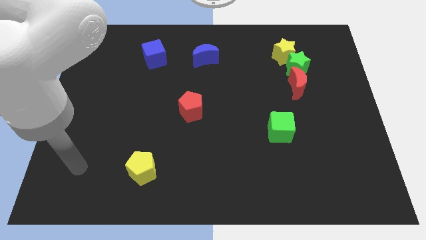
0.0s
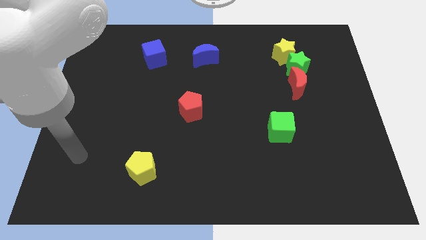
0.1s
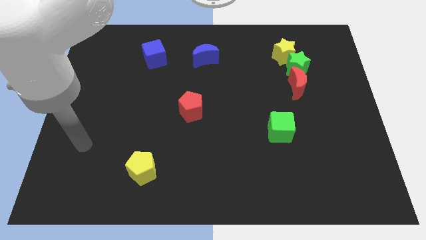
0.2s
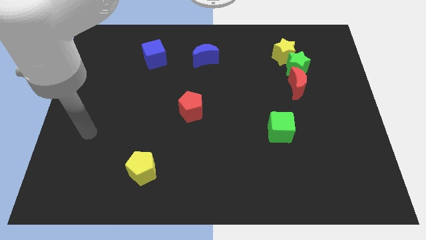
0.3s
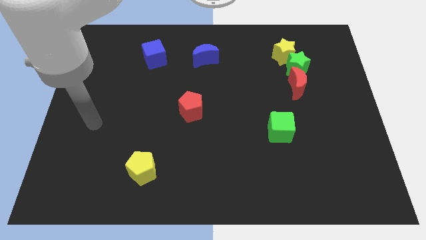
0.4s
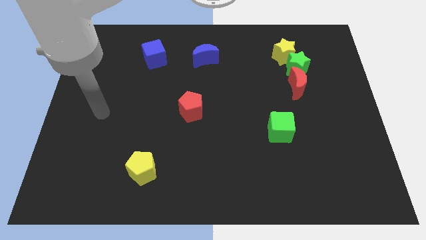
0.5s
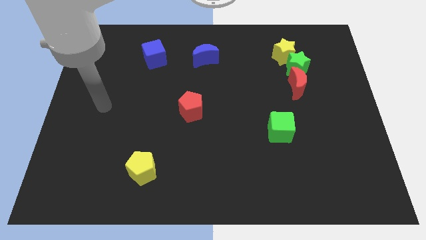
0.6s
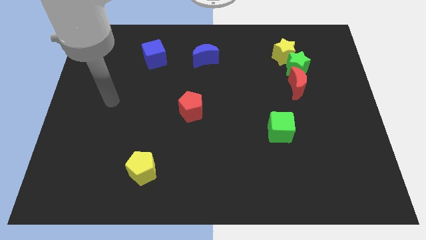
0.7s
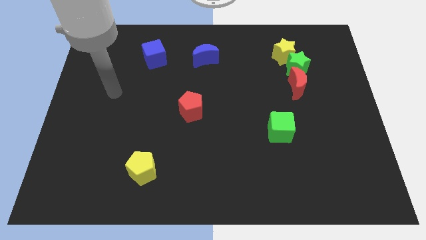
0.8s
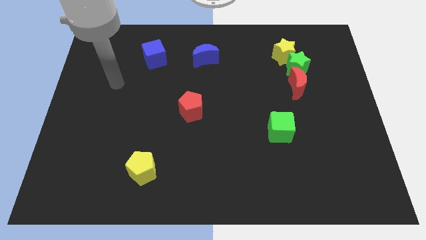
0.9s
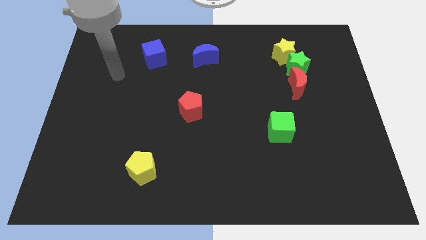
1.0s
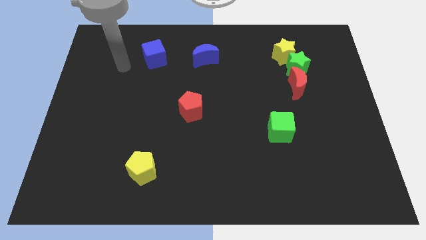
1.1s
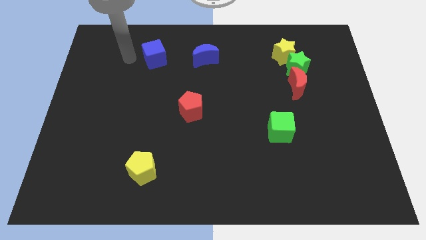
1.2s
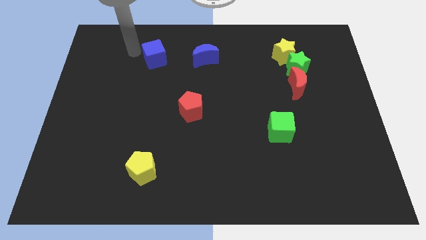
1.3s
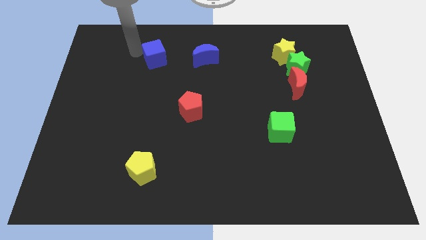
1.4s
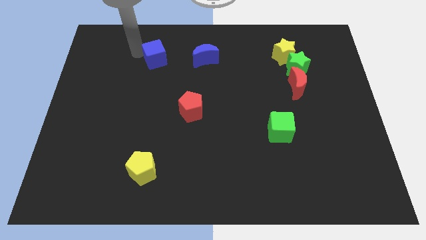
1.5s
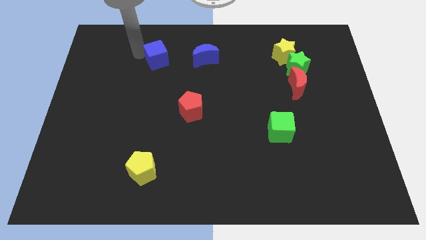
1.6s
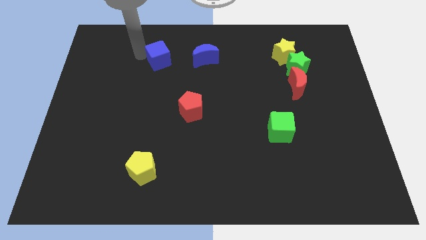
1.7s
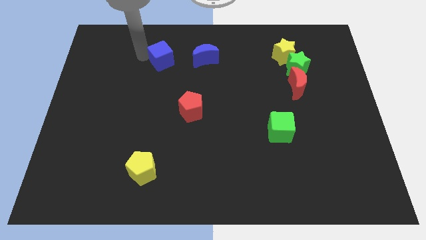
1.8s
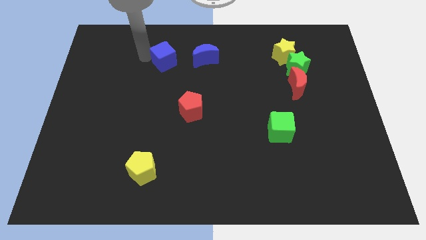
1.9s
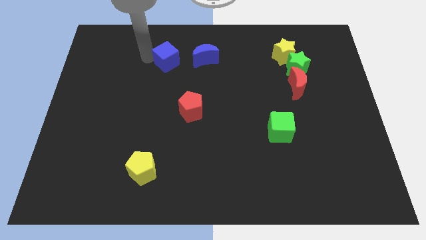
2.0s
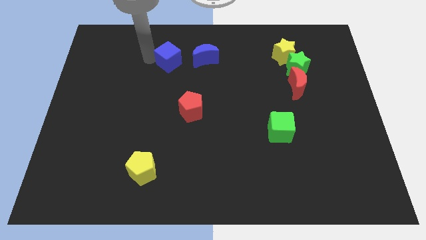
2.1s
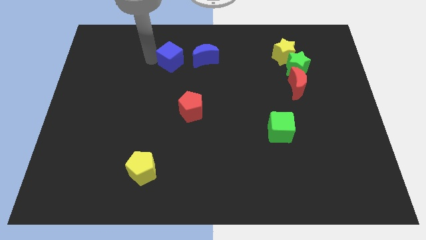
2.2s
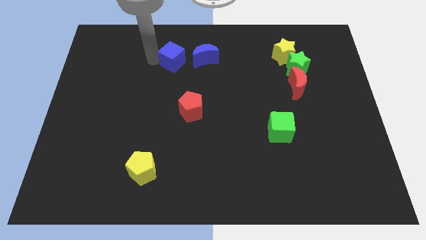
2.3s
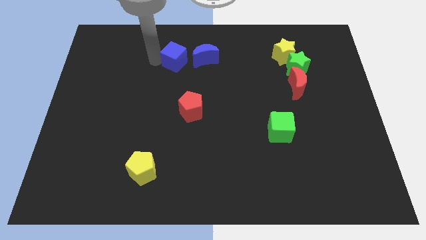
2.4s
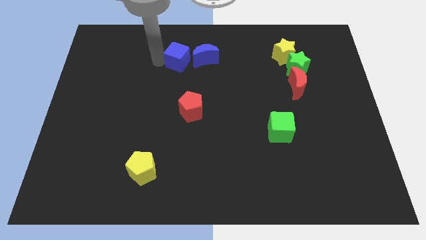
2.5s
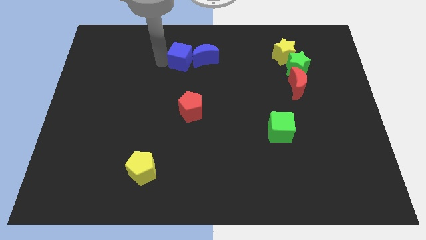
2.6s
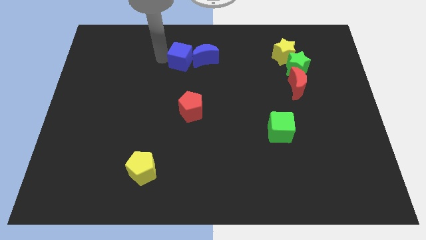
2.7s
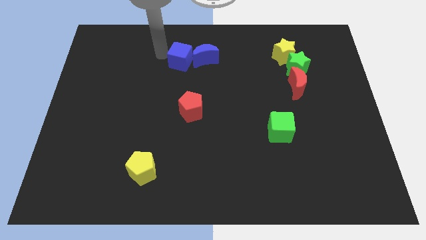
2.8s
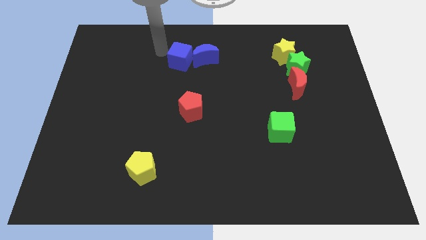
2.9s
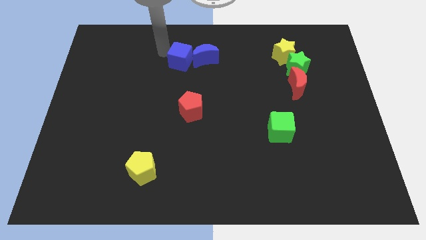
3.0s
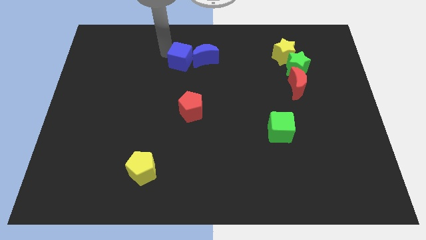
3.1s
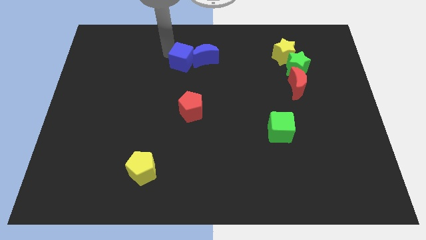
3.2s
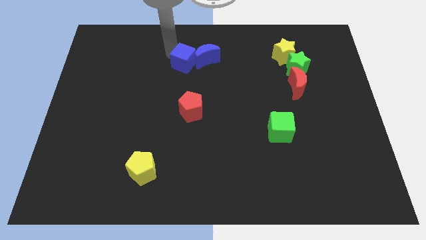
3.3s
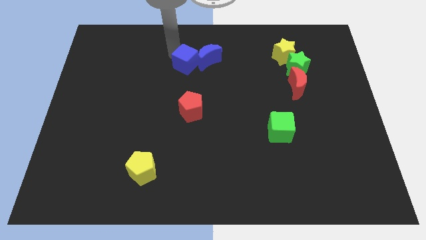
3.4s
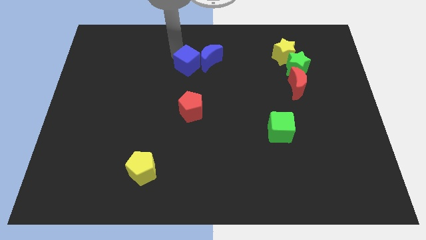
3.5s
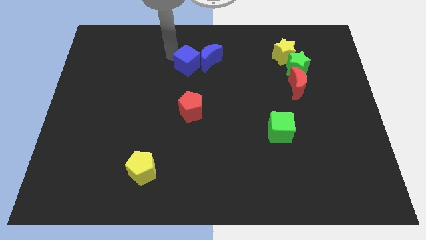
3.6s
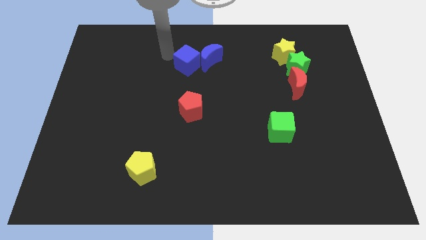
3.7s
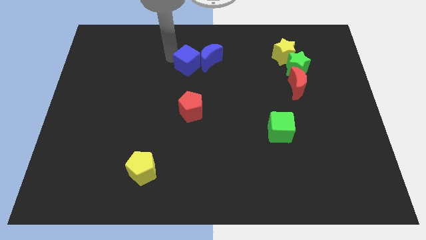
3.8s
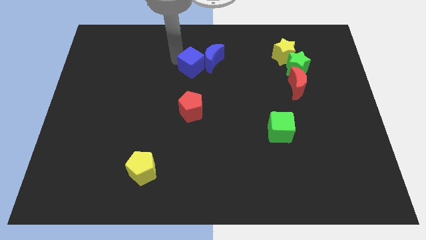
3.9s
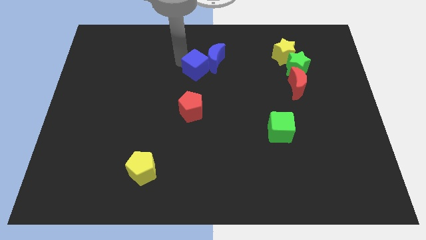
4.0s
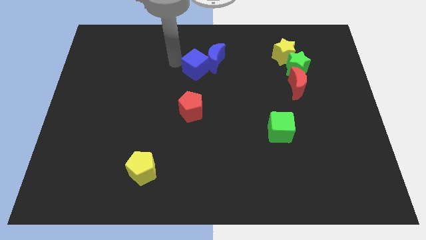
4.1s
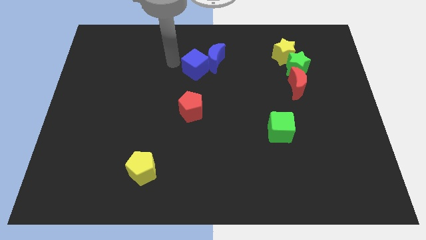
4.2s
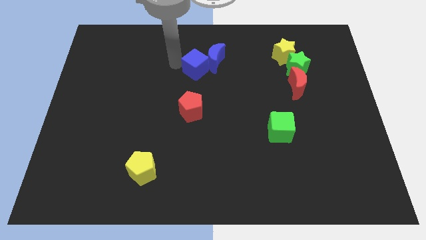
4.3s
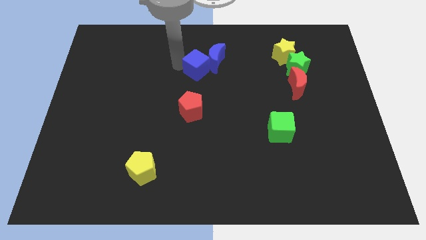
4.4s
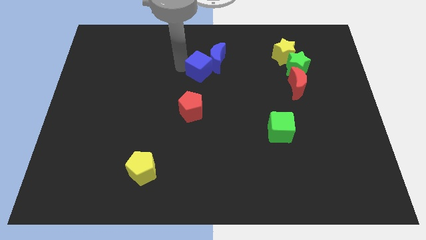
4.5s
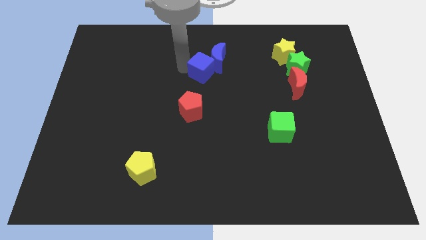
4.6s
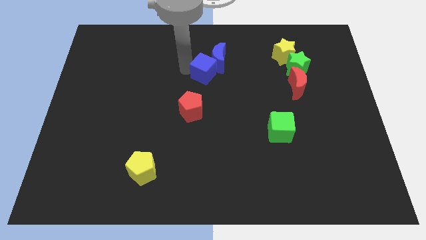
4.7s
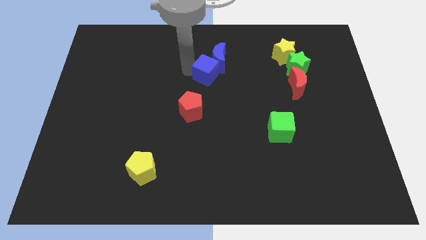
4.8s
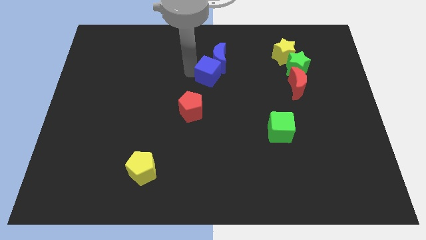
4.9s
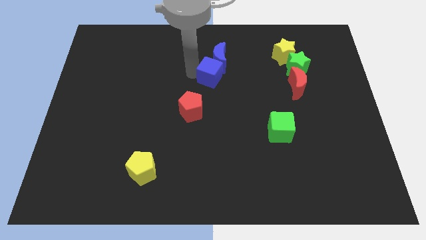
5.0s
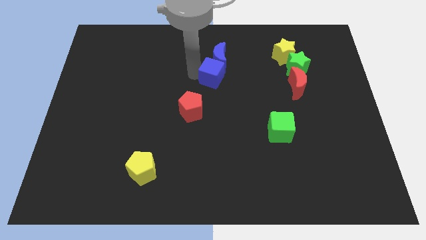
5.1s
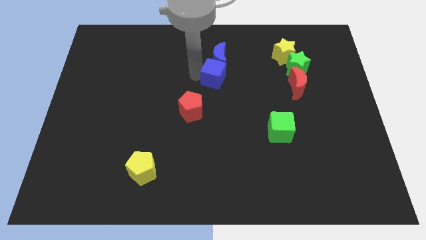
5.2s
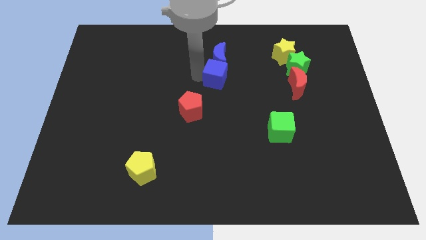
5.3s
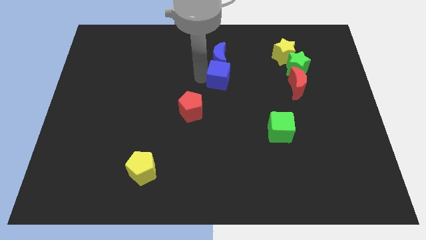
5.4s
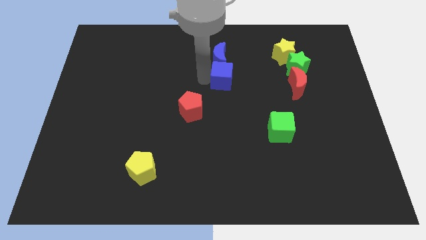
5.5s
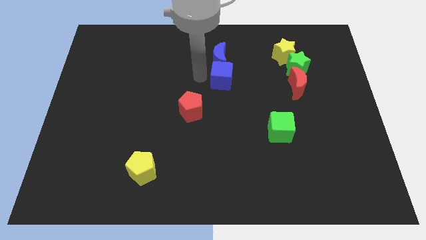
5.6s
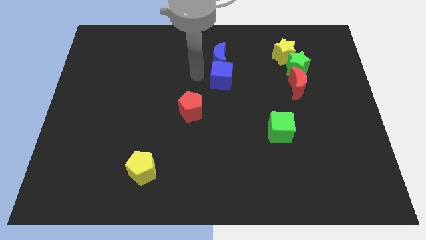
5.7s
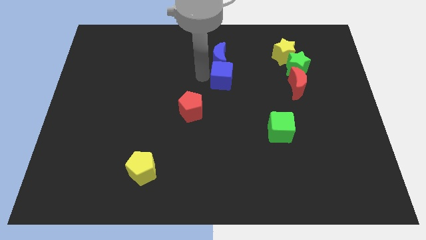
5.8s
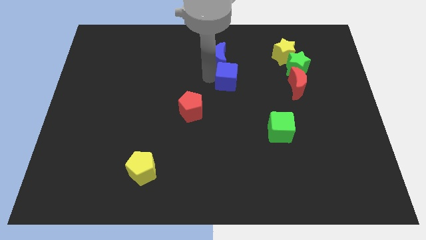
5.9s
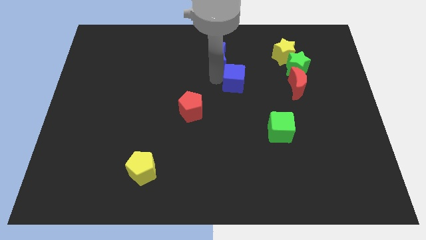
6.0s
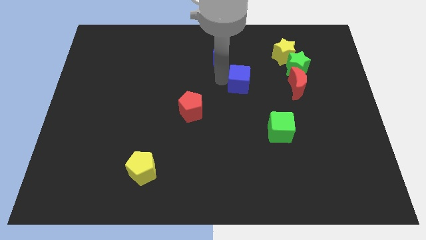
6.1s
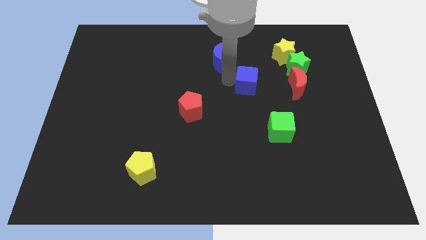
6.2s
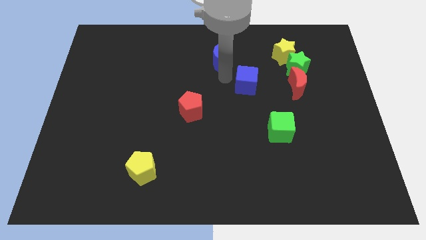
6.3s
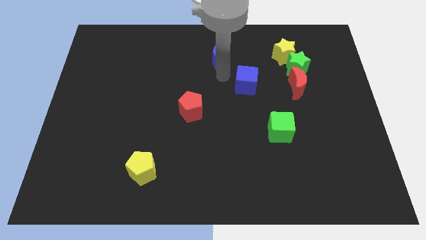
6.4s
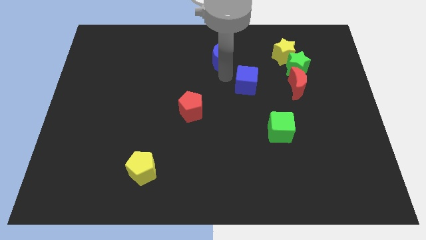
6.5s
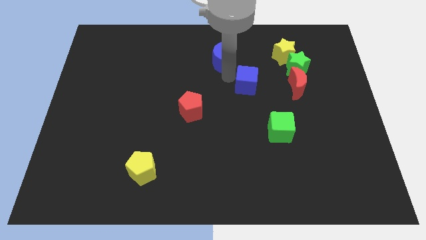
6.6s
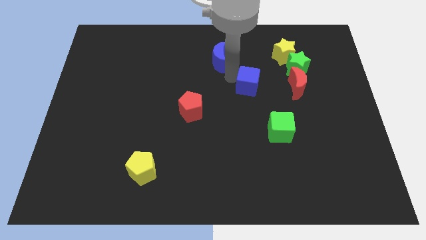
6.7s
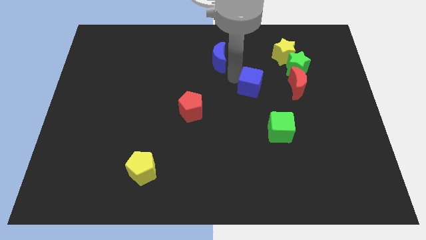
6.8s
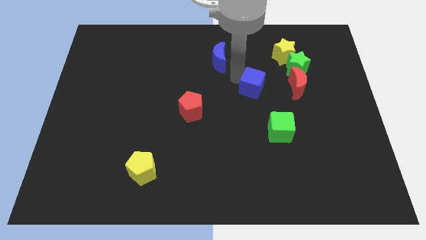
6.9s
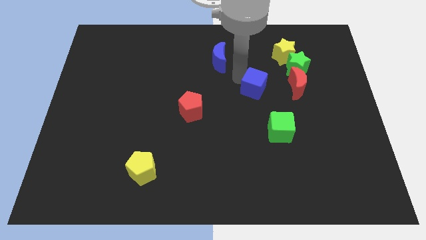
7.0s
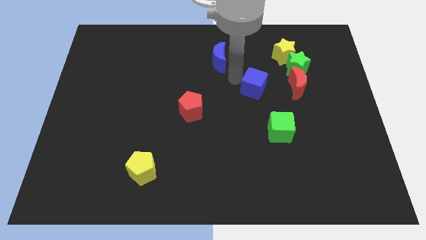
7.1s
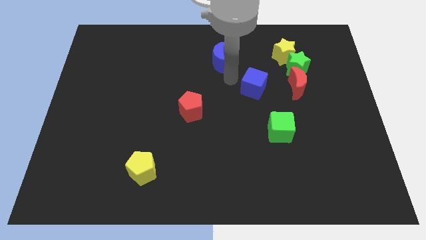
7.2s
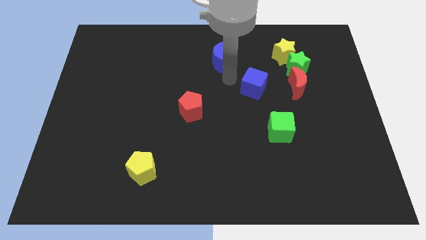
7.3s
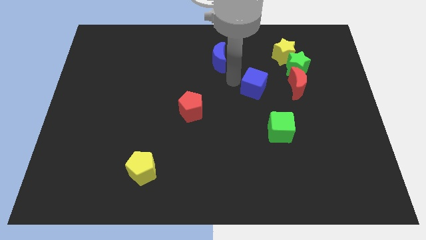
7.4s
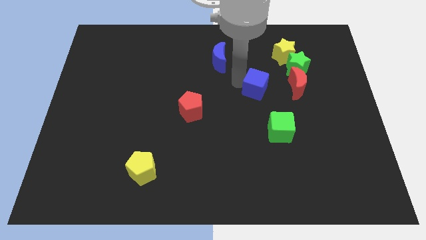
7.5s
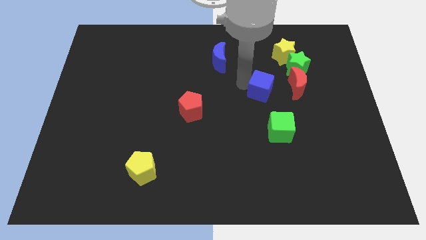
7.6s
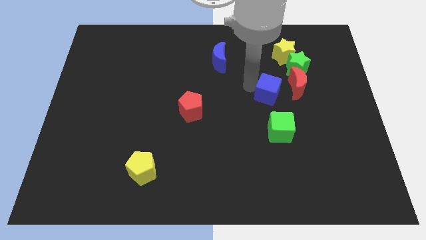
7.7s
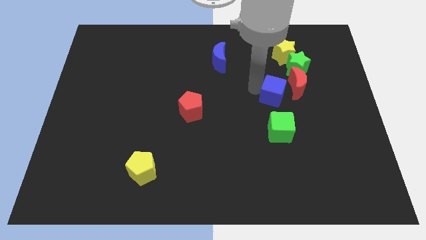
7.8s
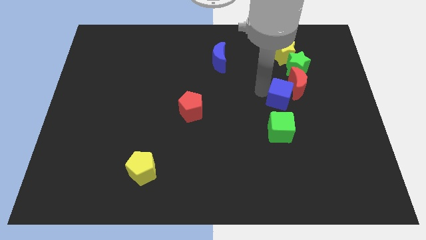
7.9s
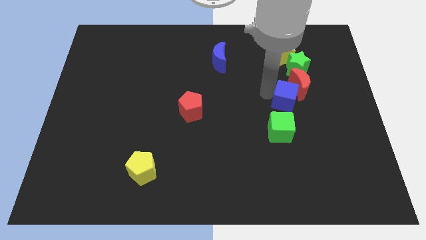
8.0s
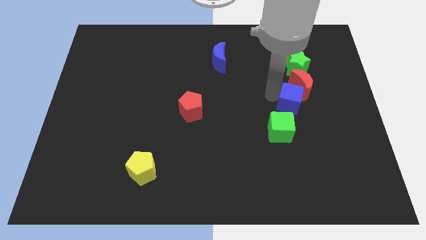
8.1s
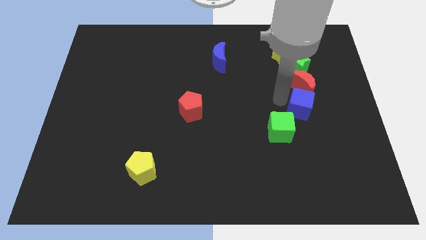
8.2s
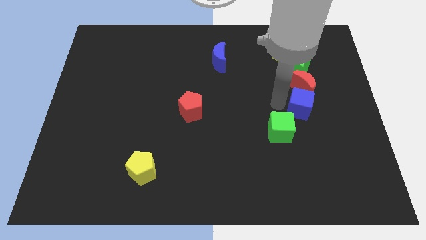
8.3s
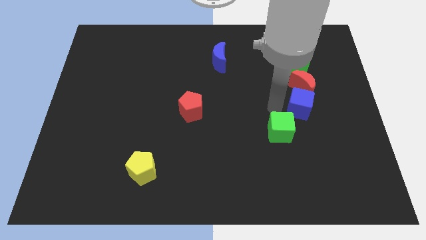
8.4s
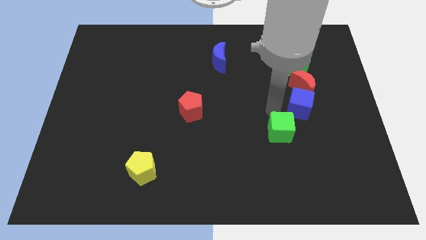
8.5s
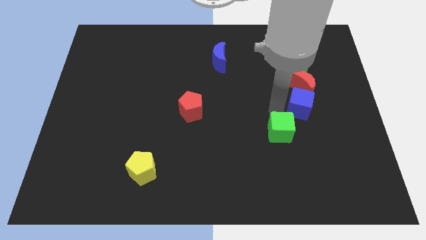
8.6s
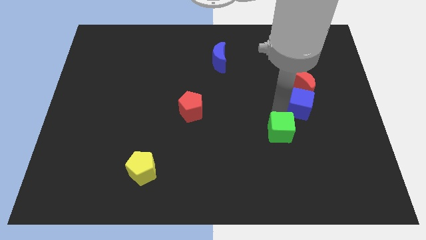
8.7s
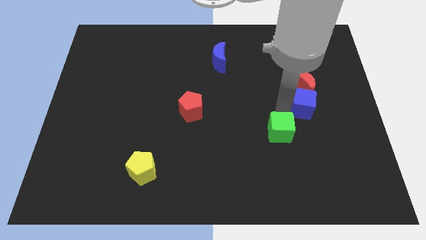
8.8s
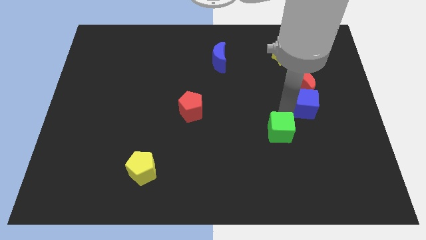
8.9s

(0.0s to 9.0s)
slide the blue cube to the bottom right of the red moon
